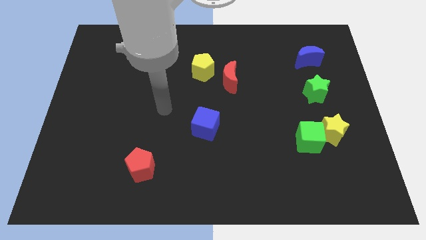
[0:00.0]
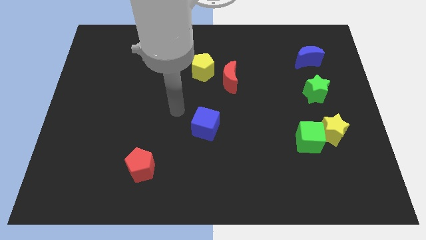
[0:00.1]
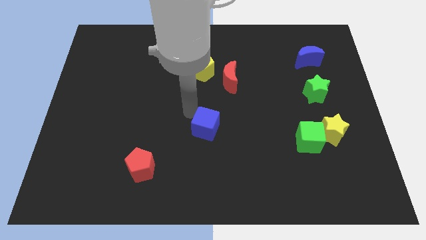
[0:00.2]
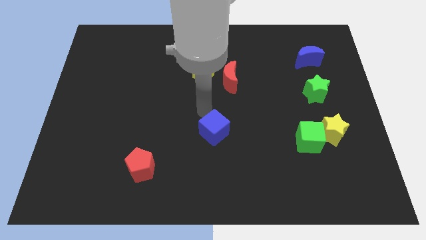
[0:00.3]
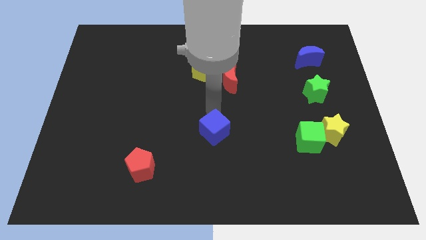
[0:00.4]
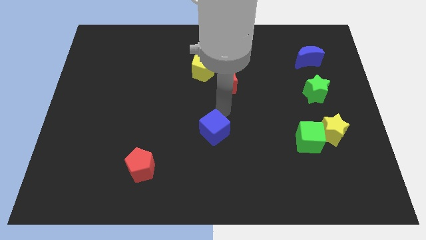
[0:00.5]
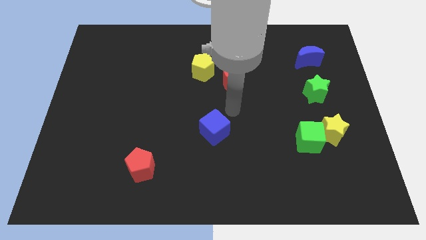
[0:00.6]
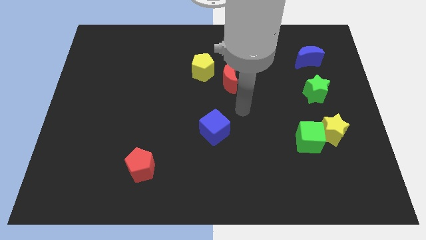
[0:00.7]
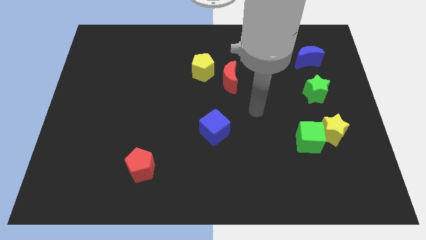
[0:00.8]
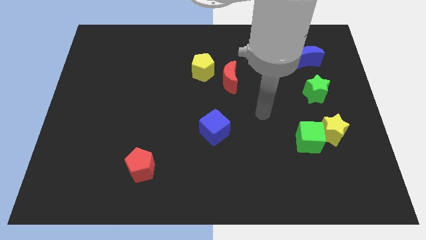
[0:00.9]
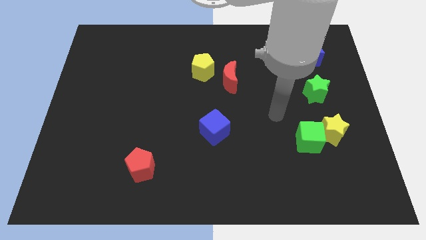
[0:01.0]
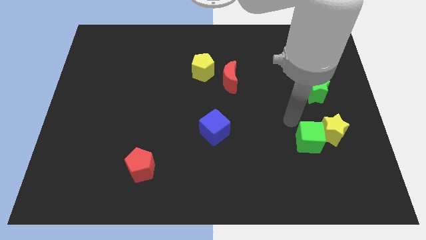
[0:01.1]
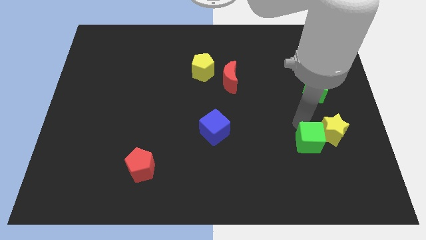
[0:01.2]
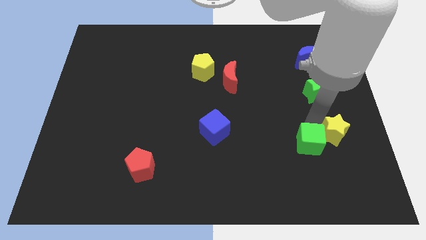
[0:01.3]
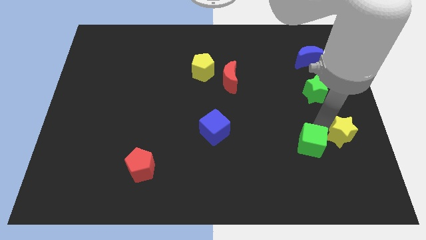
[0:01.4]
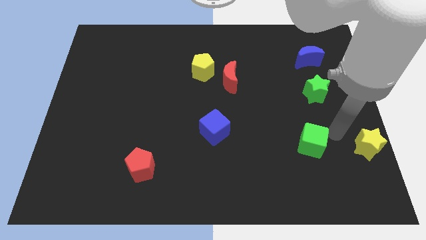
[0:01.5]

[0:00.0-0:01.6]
move the green cube away from the yellow star

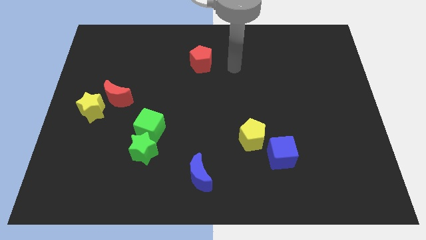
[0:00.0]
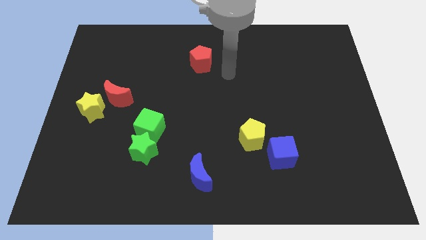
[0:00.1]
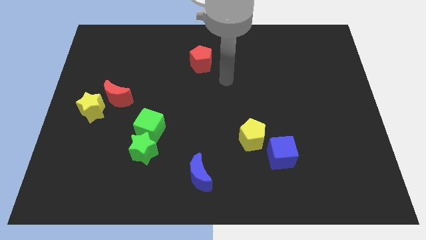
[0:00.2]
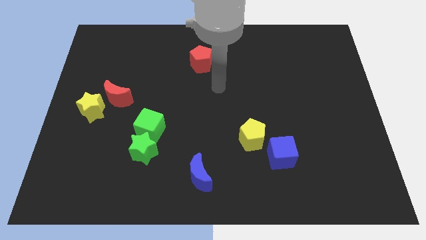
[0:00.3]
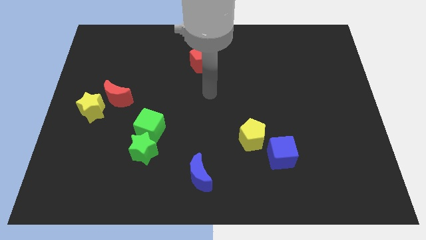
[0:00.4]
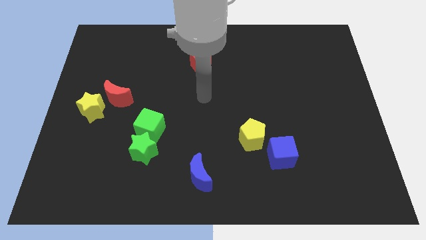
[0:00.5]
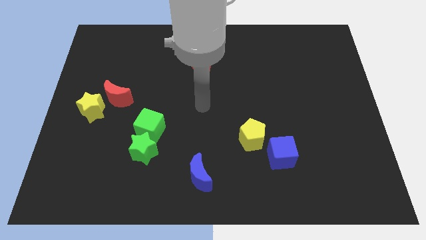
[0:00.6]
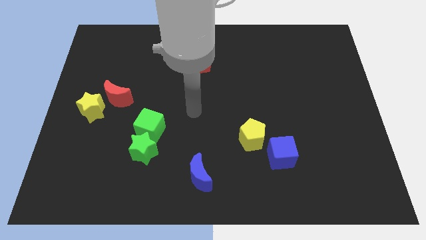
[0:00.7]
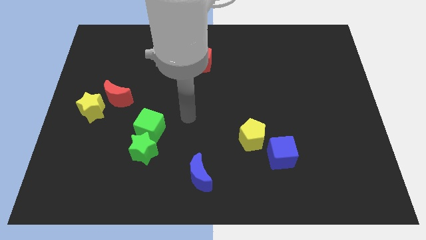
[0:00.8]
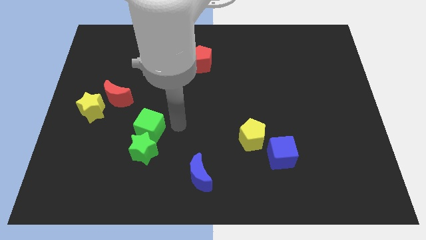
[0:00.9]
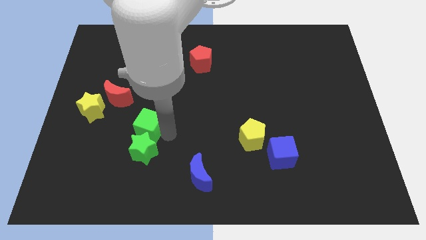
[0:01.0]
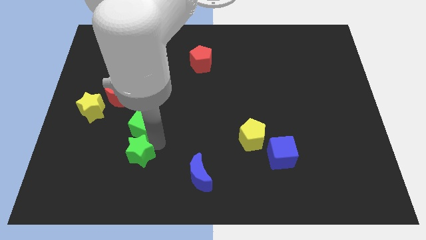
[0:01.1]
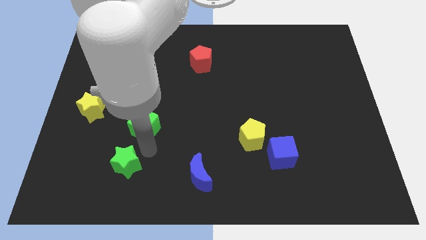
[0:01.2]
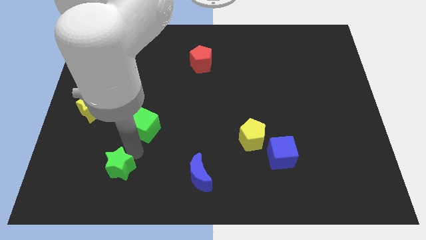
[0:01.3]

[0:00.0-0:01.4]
separate the green cube from the green star

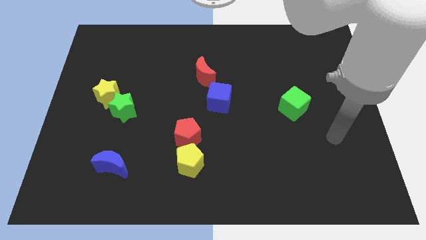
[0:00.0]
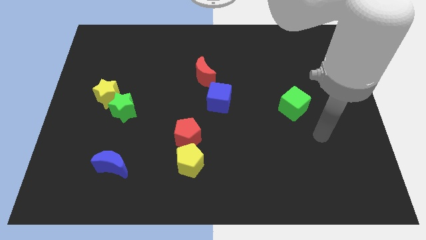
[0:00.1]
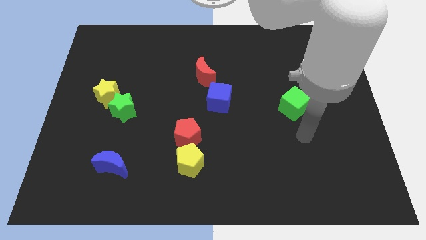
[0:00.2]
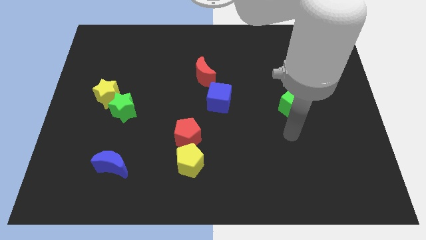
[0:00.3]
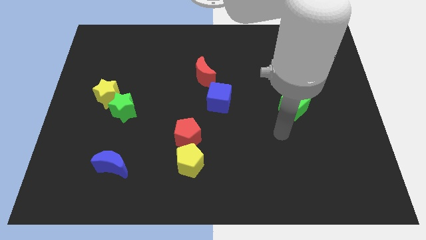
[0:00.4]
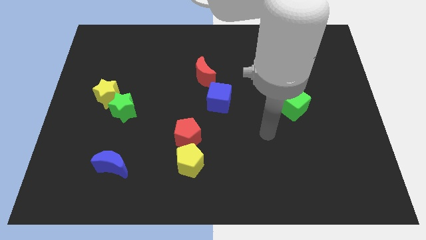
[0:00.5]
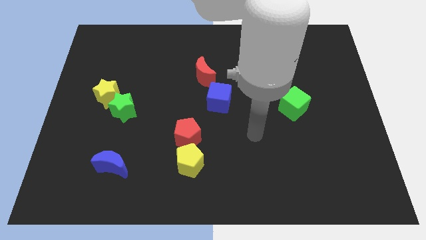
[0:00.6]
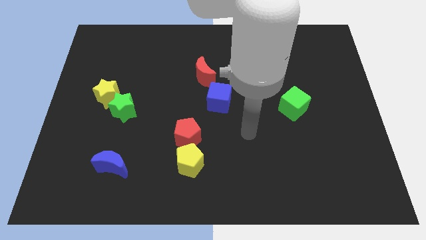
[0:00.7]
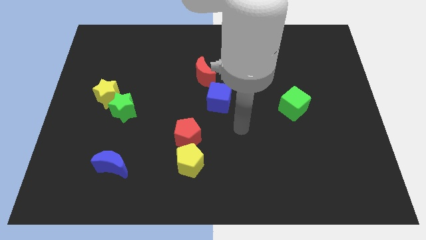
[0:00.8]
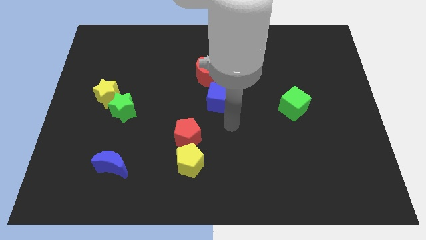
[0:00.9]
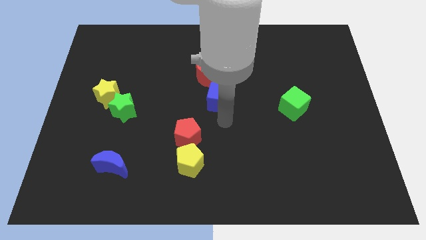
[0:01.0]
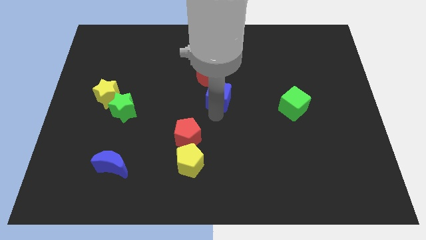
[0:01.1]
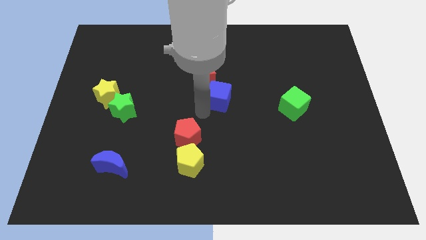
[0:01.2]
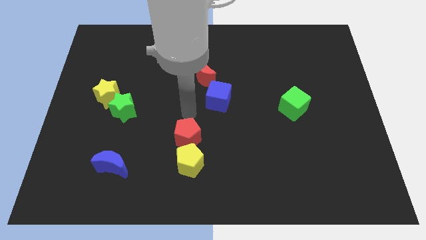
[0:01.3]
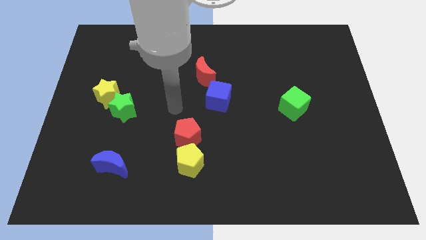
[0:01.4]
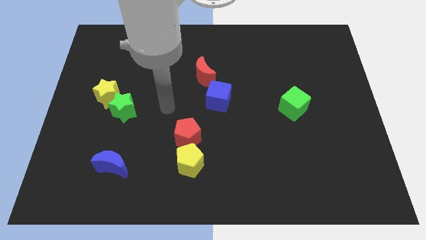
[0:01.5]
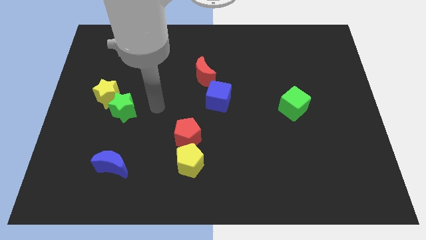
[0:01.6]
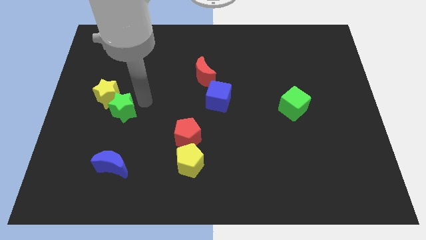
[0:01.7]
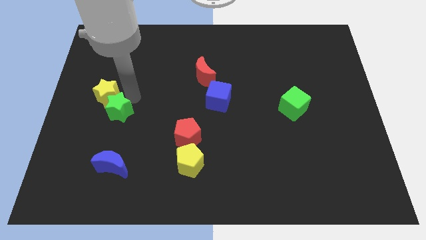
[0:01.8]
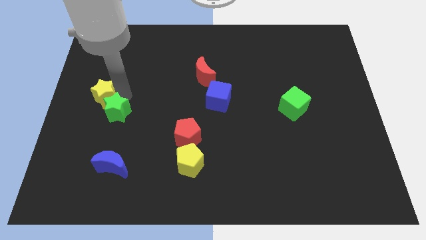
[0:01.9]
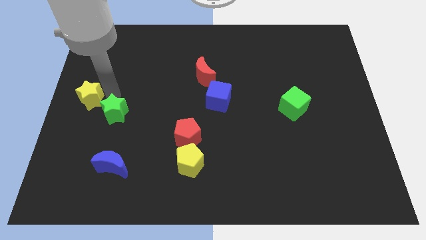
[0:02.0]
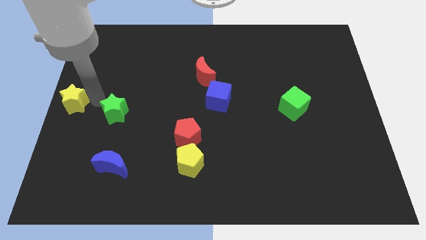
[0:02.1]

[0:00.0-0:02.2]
separate the green star from the yellow star

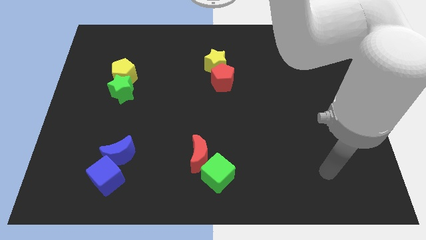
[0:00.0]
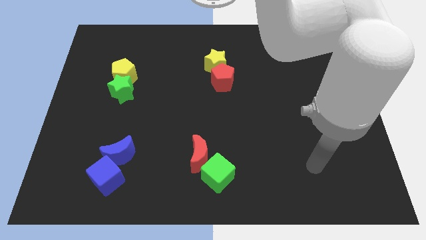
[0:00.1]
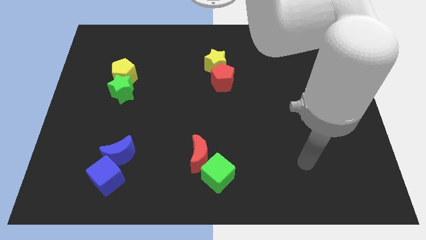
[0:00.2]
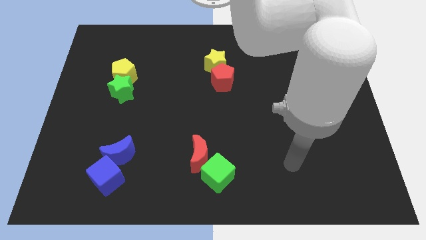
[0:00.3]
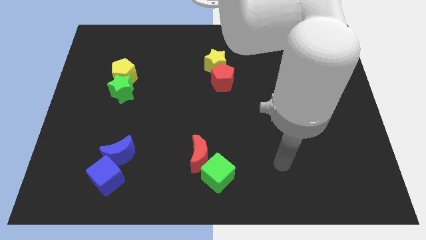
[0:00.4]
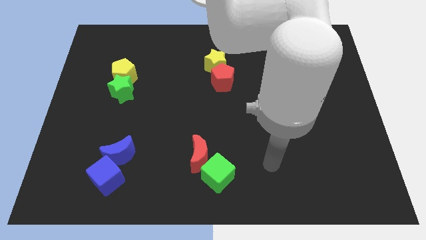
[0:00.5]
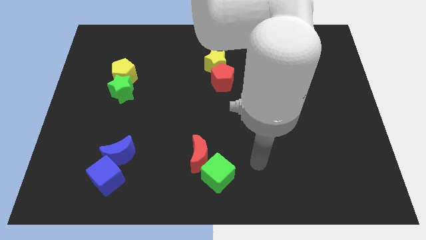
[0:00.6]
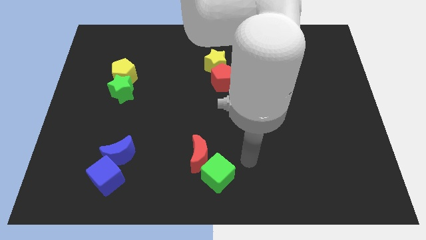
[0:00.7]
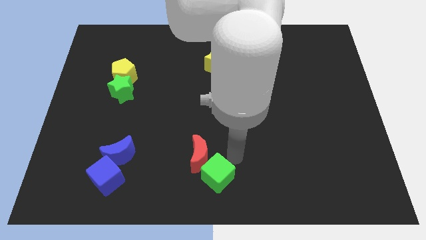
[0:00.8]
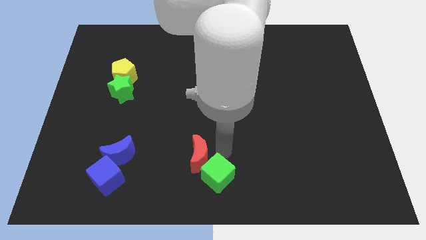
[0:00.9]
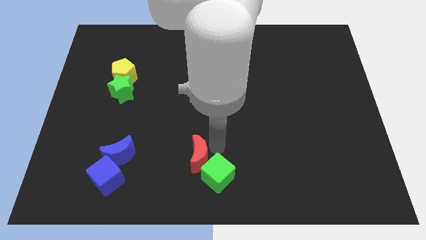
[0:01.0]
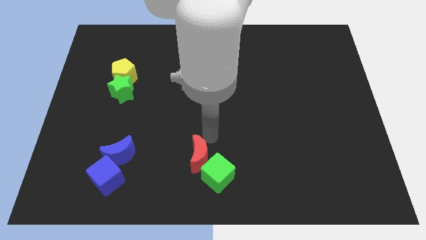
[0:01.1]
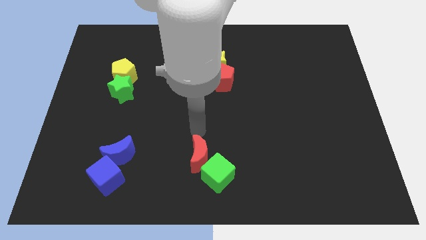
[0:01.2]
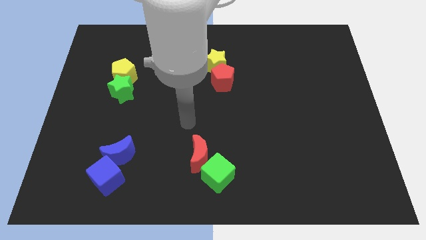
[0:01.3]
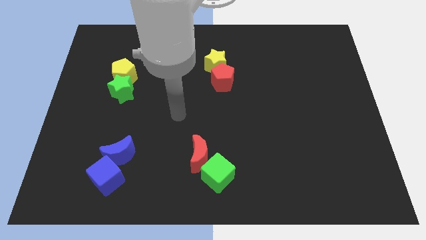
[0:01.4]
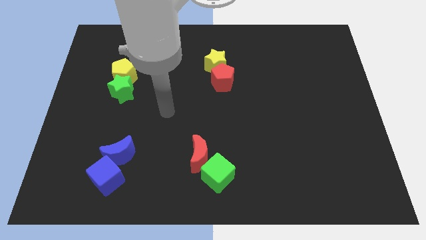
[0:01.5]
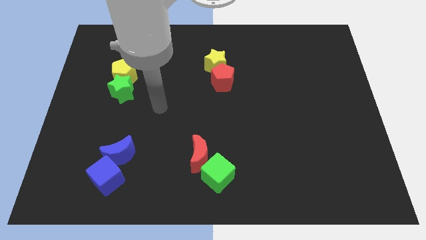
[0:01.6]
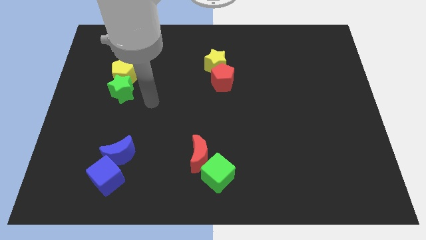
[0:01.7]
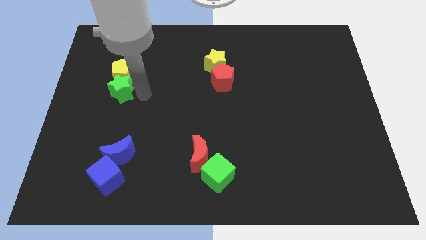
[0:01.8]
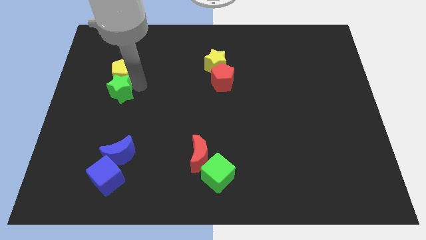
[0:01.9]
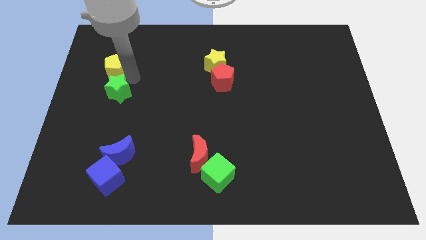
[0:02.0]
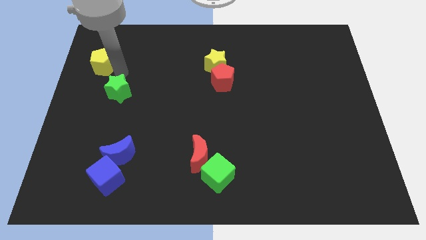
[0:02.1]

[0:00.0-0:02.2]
move the green star away from the yellow pentagon

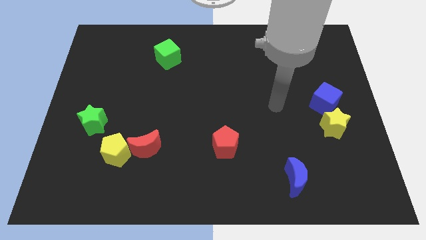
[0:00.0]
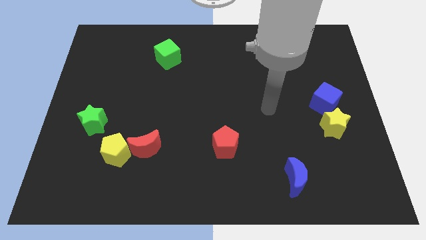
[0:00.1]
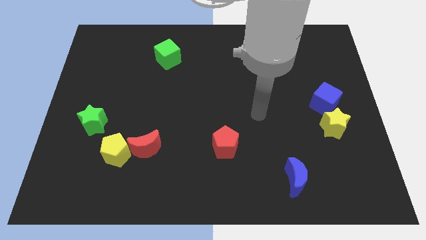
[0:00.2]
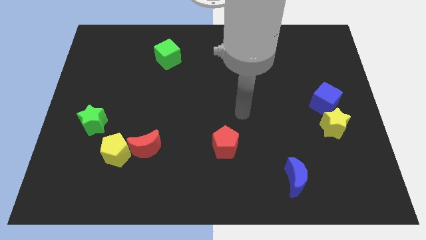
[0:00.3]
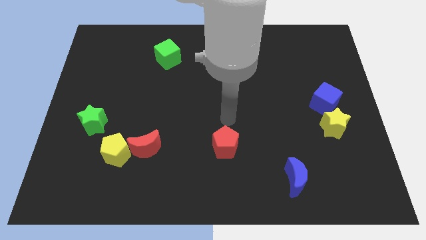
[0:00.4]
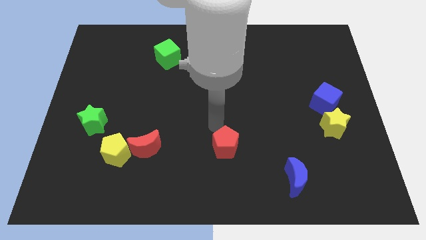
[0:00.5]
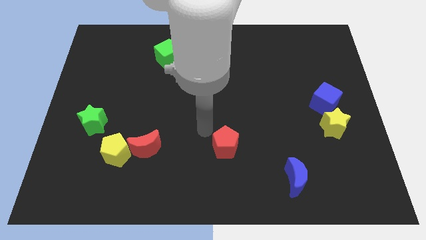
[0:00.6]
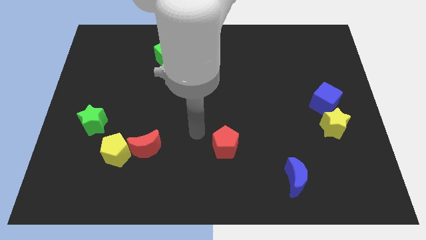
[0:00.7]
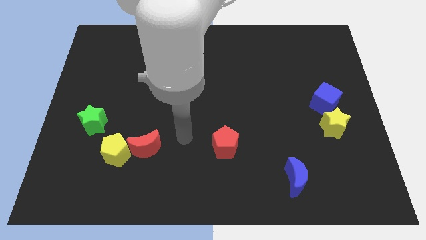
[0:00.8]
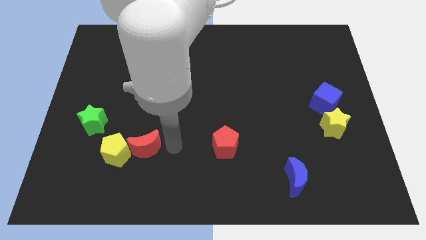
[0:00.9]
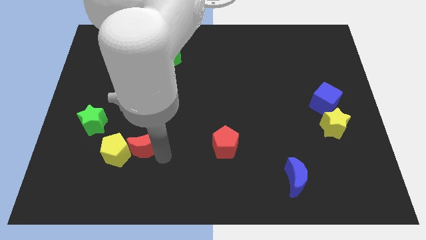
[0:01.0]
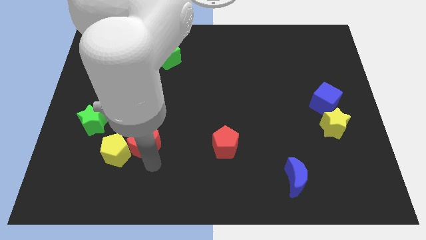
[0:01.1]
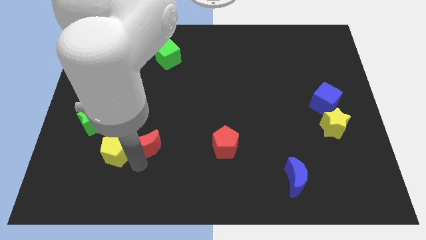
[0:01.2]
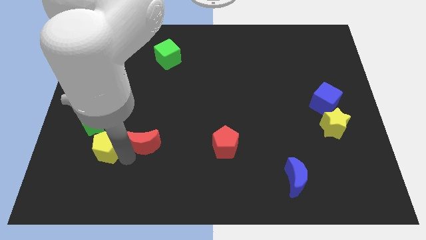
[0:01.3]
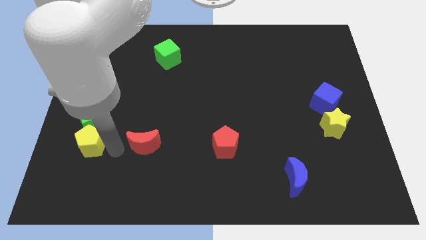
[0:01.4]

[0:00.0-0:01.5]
separate the red moon from the yellow pentagon

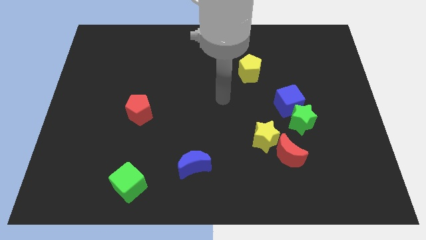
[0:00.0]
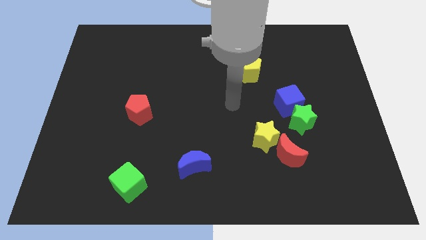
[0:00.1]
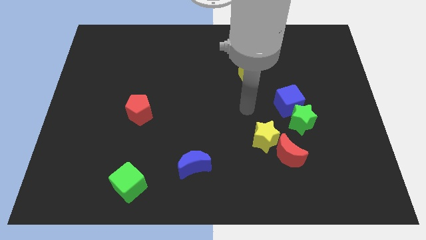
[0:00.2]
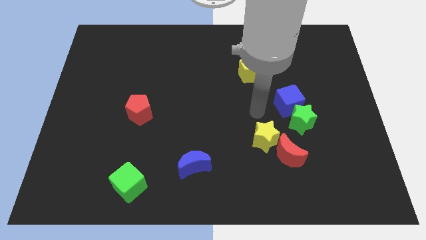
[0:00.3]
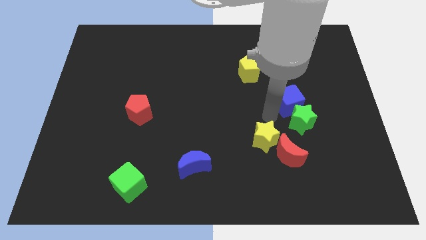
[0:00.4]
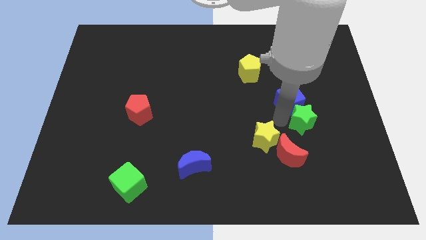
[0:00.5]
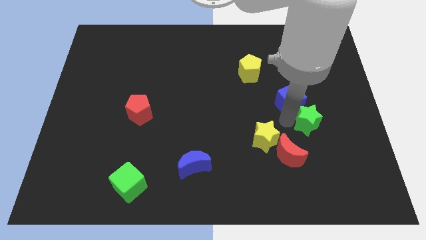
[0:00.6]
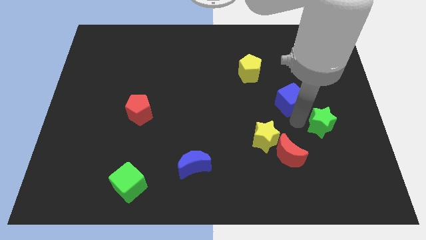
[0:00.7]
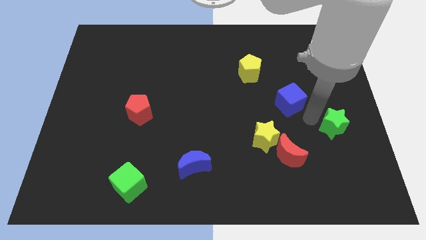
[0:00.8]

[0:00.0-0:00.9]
pull the blue cube apart from the green star
